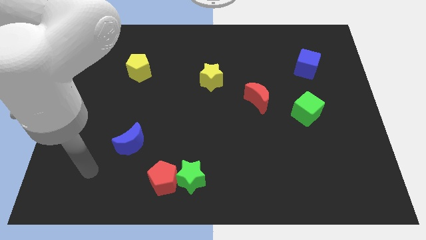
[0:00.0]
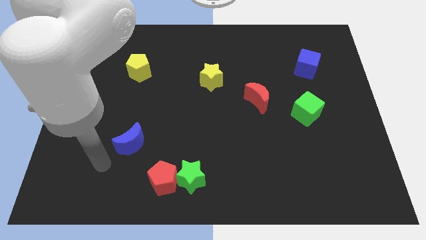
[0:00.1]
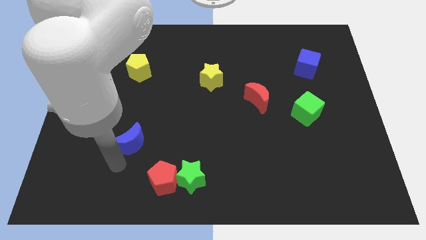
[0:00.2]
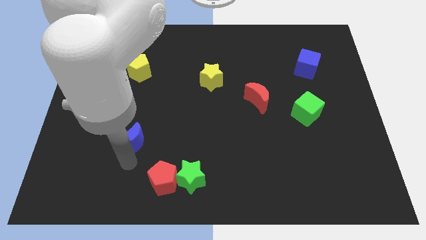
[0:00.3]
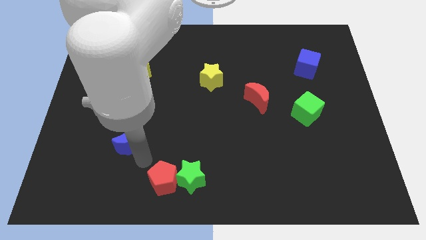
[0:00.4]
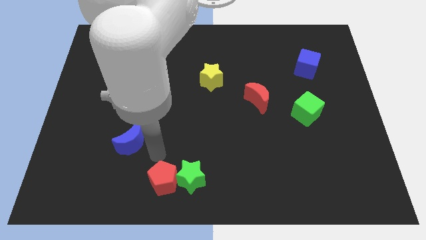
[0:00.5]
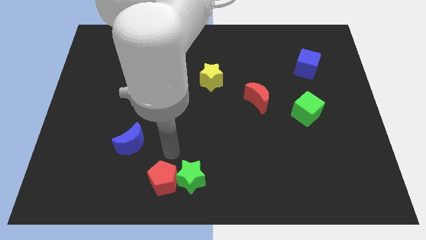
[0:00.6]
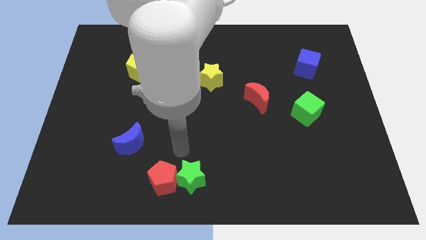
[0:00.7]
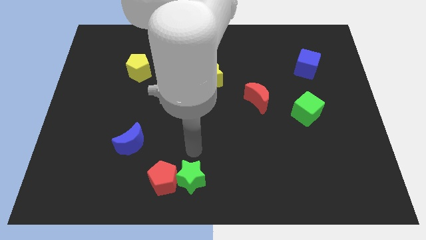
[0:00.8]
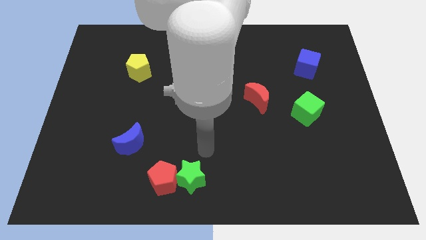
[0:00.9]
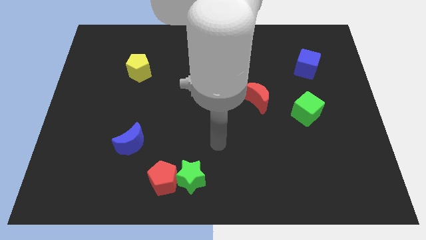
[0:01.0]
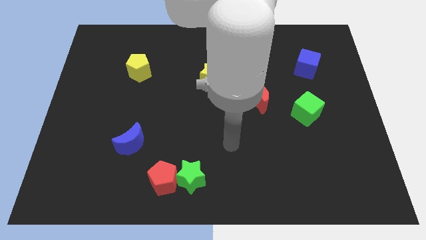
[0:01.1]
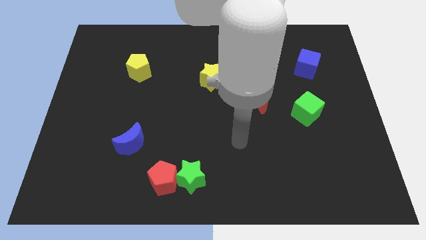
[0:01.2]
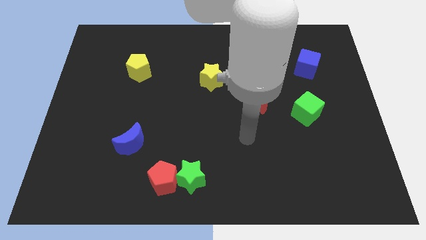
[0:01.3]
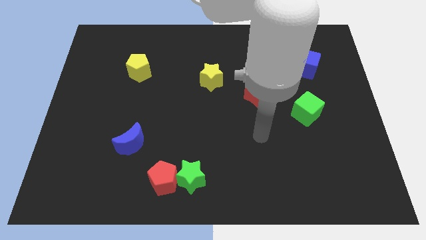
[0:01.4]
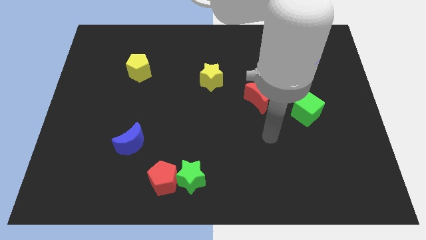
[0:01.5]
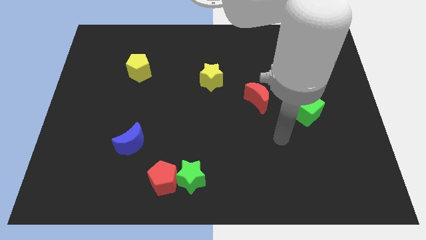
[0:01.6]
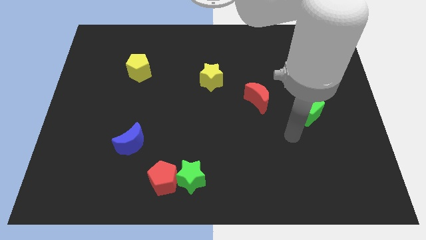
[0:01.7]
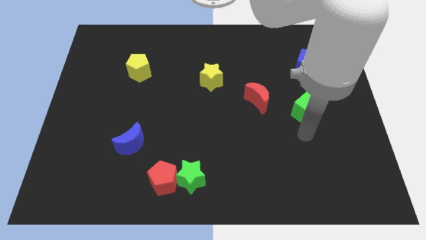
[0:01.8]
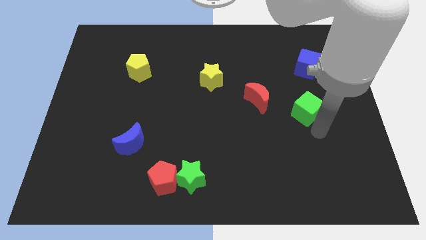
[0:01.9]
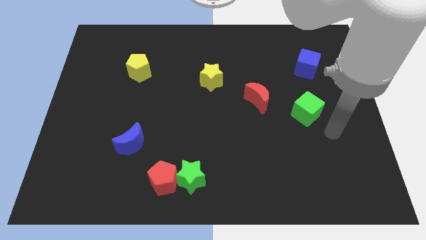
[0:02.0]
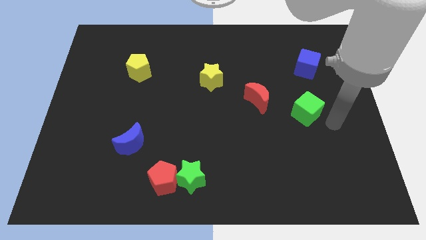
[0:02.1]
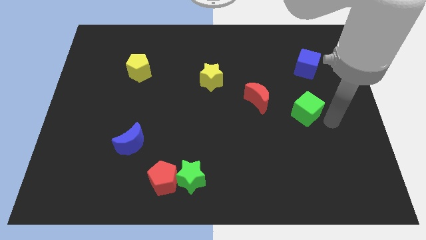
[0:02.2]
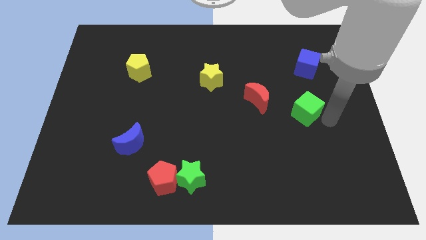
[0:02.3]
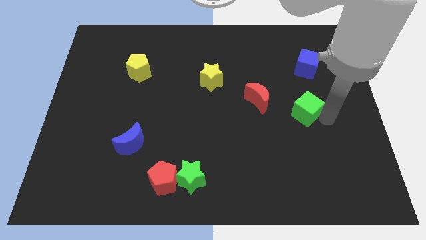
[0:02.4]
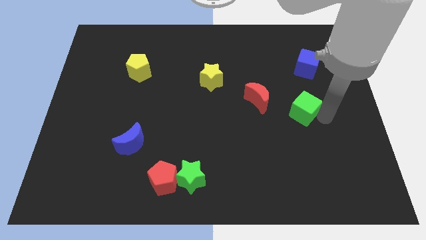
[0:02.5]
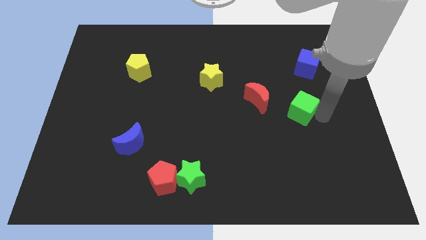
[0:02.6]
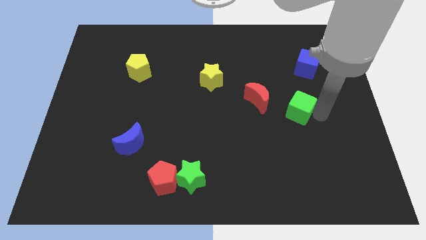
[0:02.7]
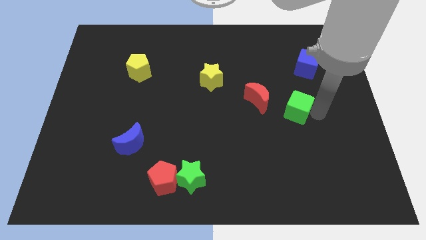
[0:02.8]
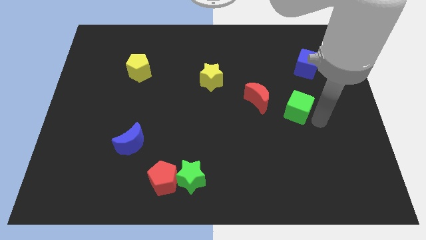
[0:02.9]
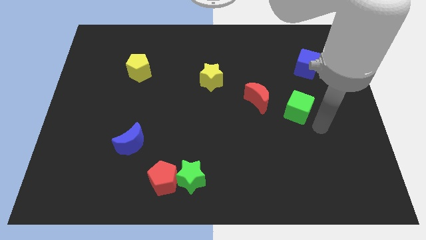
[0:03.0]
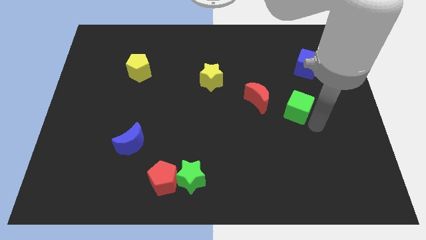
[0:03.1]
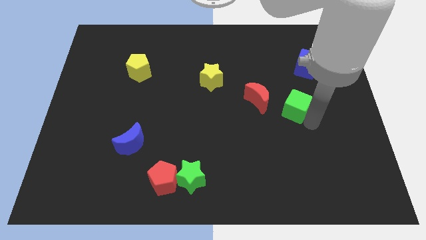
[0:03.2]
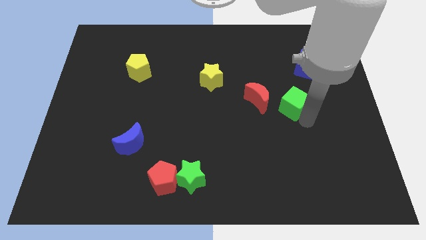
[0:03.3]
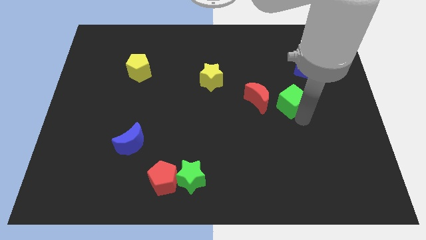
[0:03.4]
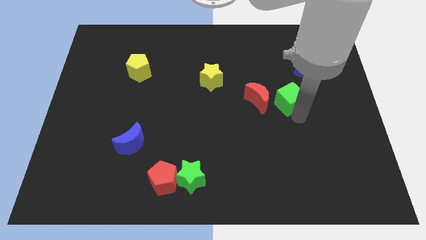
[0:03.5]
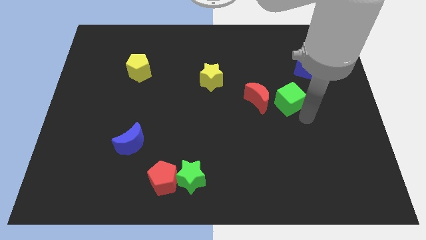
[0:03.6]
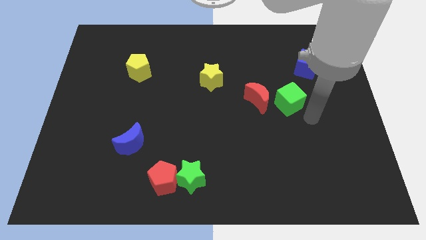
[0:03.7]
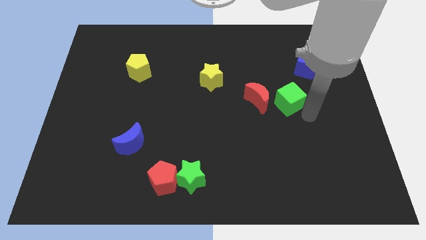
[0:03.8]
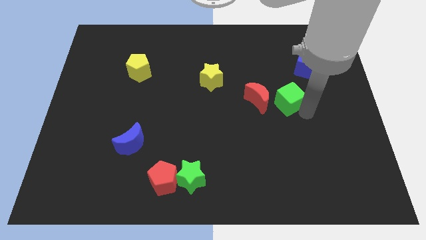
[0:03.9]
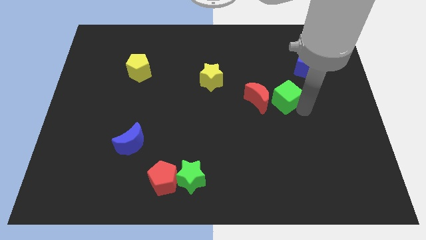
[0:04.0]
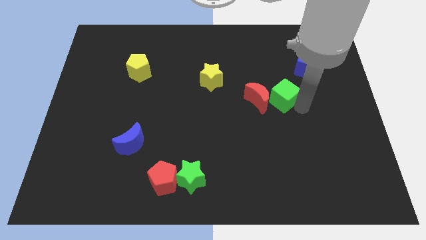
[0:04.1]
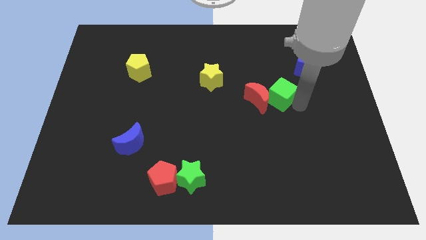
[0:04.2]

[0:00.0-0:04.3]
slightly push the green cube diagonally upwards and left

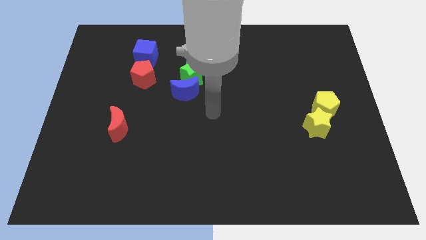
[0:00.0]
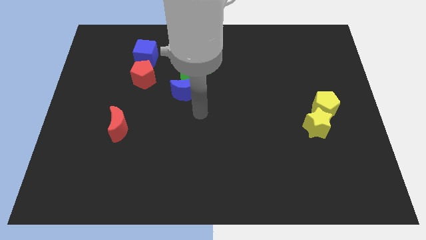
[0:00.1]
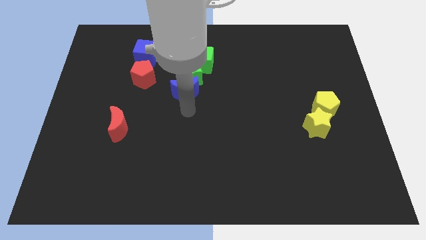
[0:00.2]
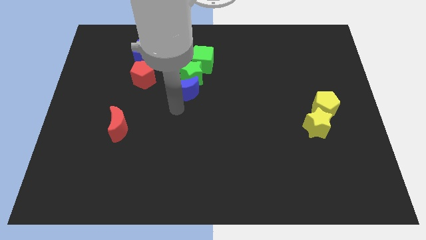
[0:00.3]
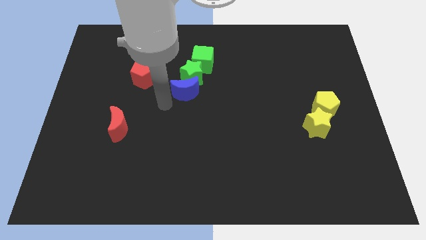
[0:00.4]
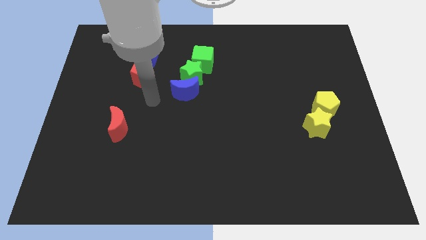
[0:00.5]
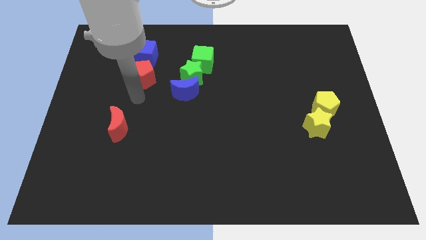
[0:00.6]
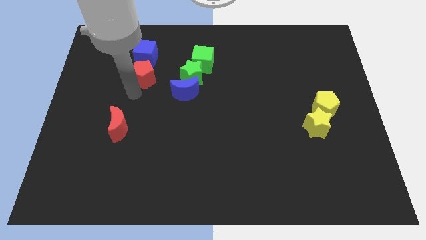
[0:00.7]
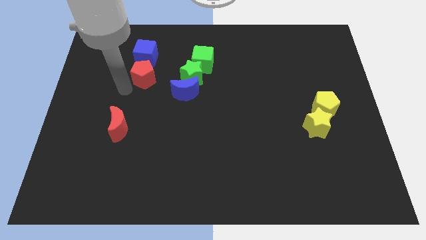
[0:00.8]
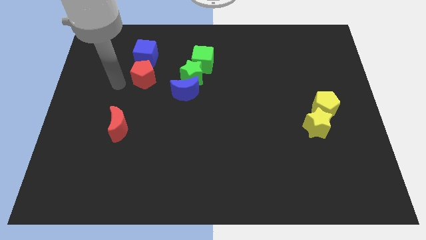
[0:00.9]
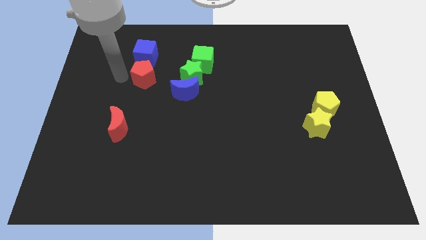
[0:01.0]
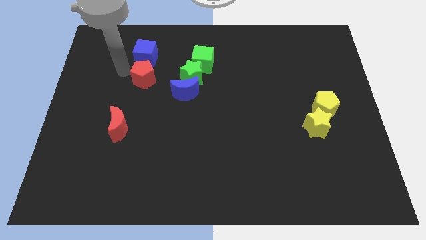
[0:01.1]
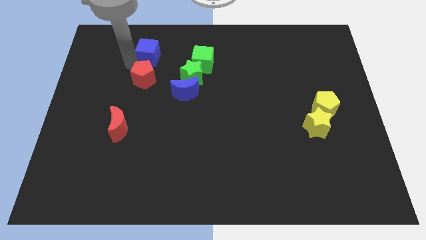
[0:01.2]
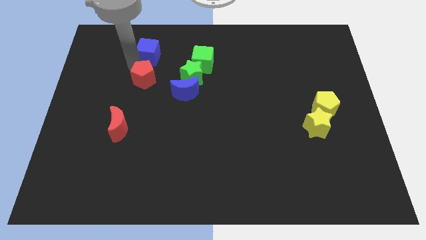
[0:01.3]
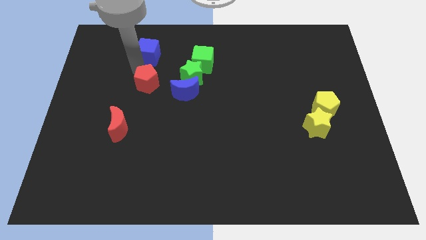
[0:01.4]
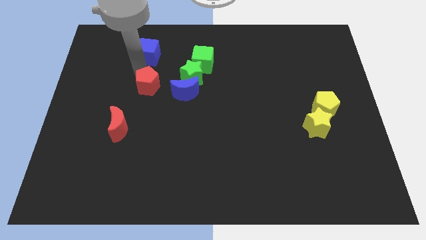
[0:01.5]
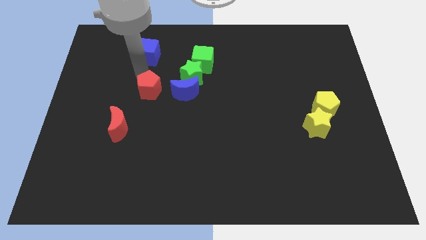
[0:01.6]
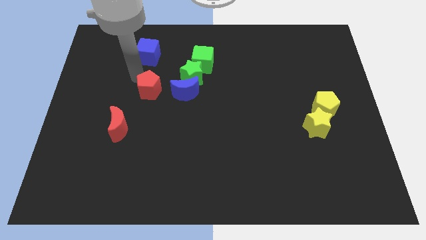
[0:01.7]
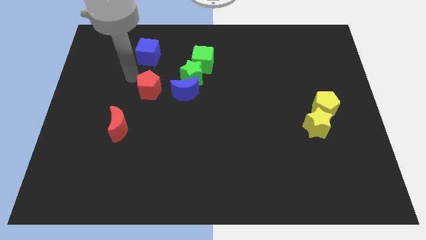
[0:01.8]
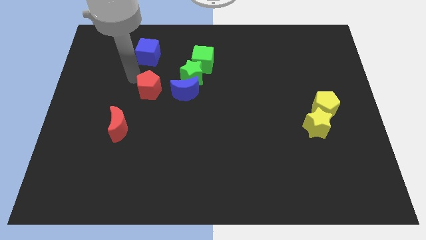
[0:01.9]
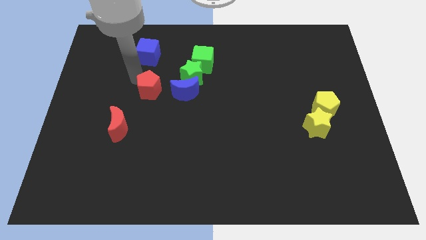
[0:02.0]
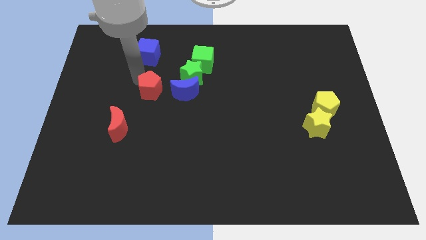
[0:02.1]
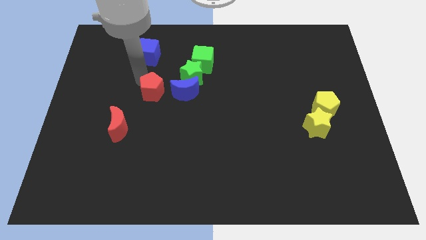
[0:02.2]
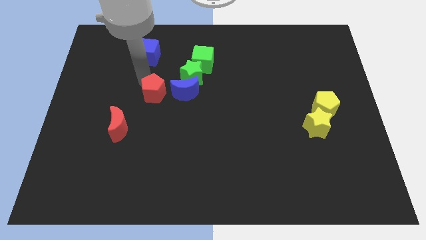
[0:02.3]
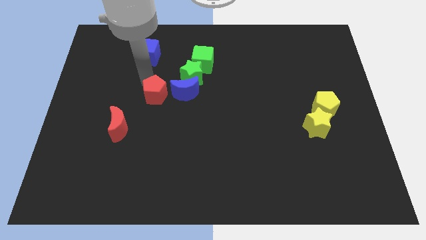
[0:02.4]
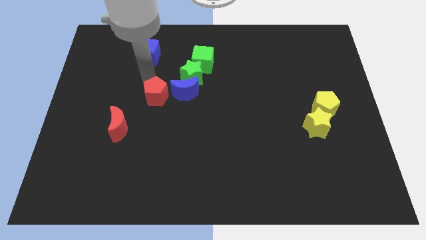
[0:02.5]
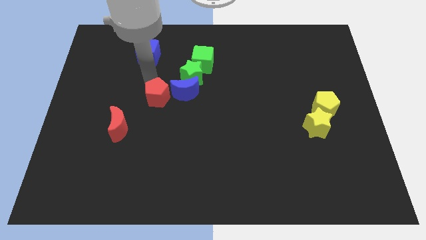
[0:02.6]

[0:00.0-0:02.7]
slightly push the red pentagon downwards and to the right diagonally

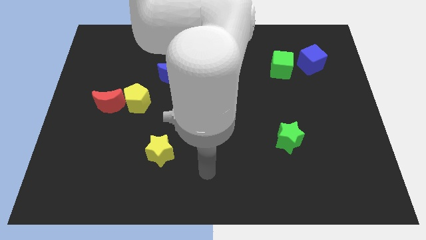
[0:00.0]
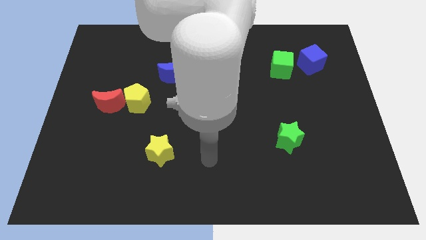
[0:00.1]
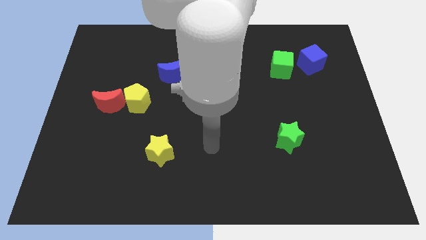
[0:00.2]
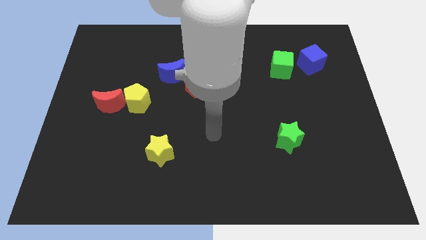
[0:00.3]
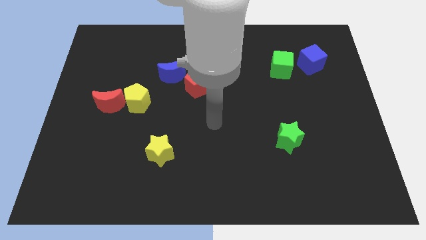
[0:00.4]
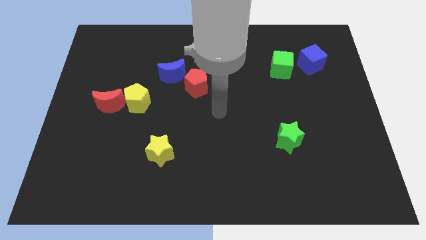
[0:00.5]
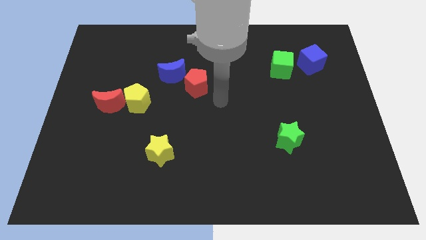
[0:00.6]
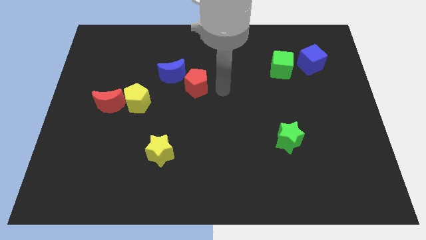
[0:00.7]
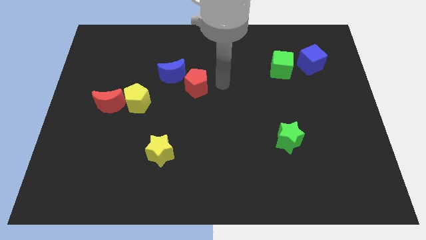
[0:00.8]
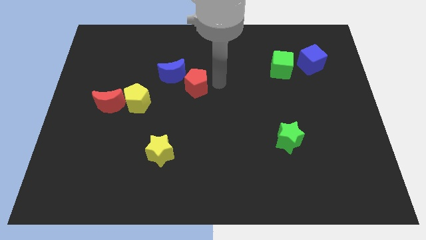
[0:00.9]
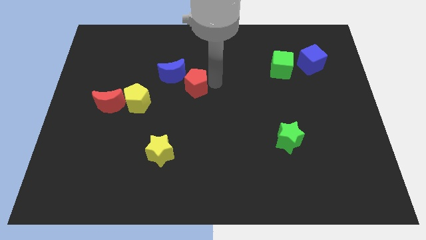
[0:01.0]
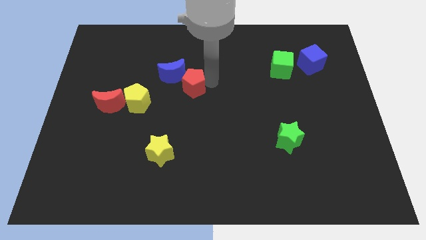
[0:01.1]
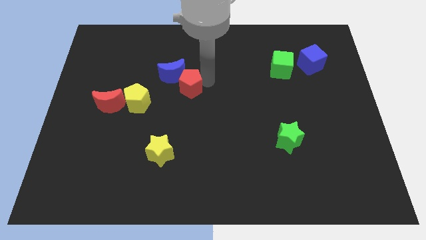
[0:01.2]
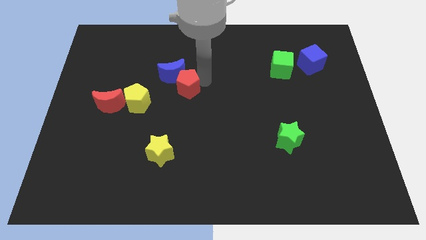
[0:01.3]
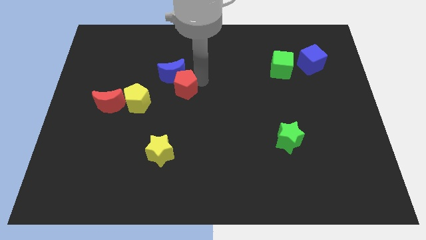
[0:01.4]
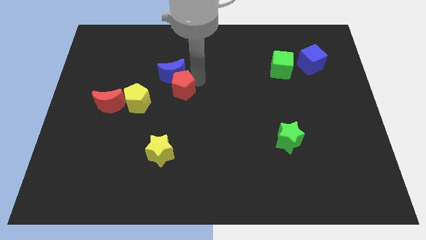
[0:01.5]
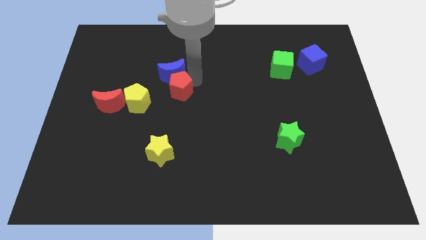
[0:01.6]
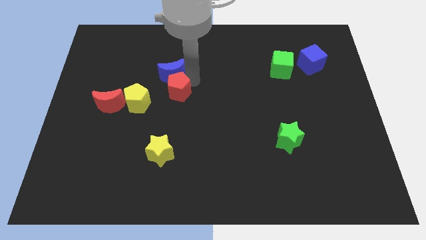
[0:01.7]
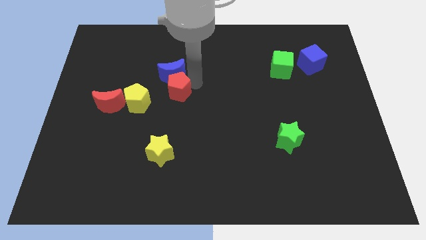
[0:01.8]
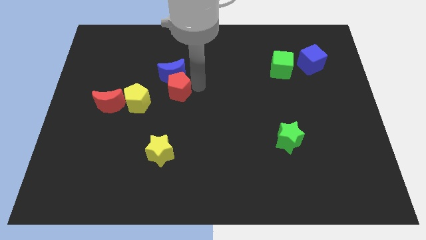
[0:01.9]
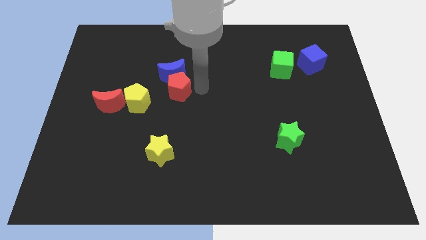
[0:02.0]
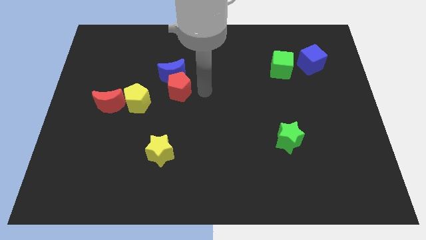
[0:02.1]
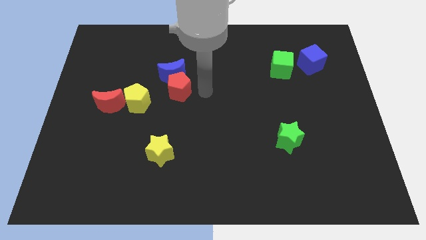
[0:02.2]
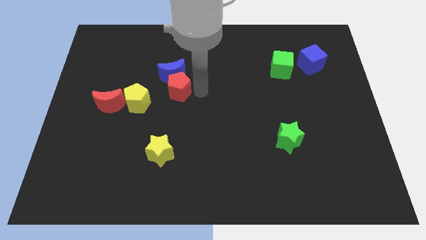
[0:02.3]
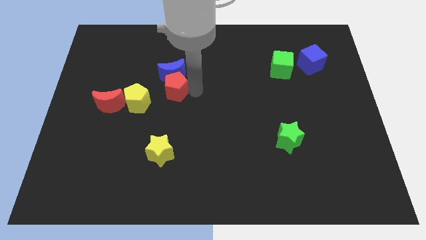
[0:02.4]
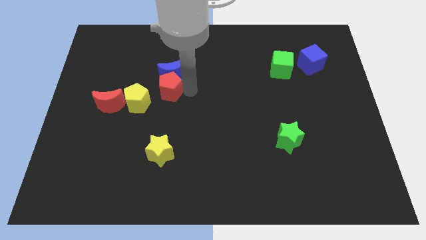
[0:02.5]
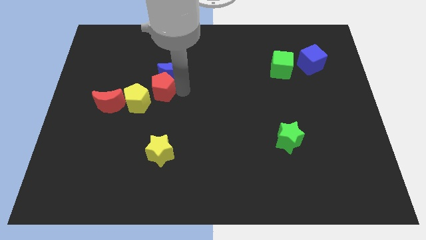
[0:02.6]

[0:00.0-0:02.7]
push the red pentagon a bit left
